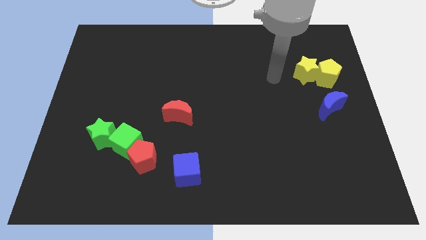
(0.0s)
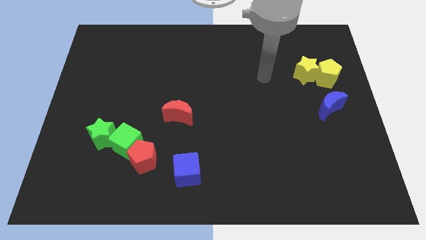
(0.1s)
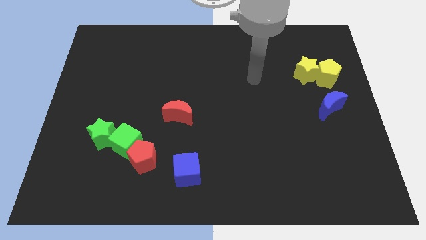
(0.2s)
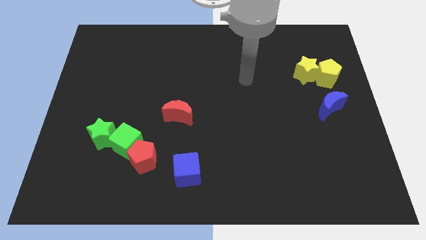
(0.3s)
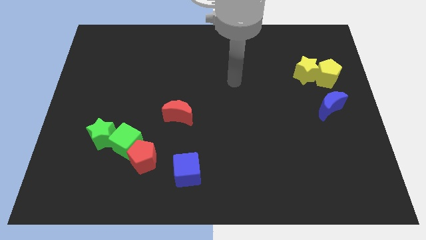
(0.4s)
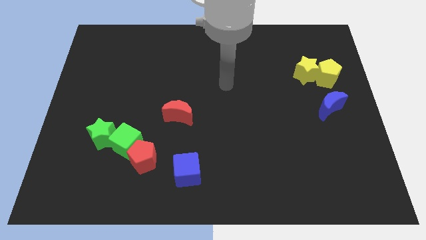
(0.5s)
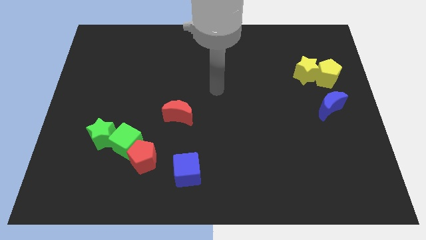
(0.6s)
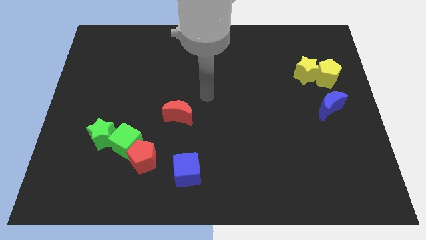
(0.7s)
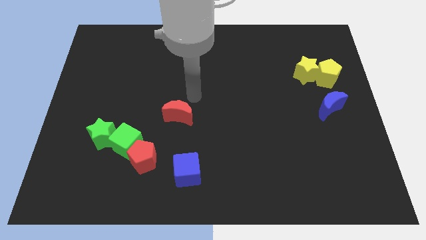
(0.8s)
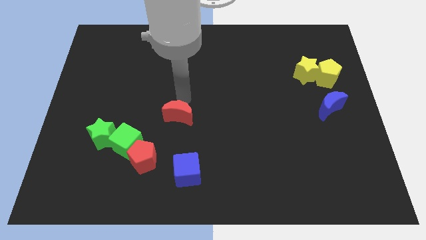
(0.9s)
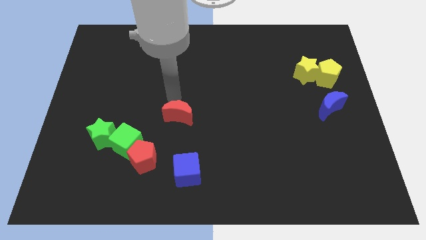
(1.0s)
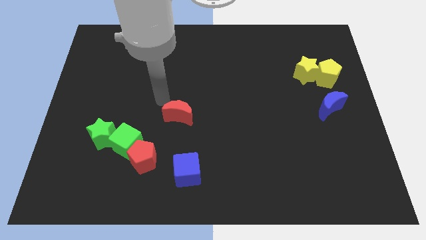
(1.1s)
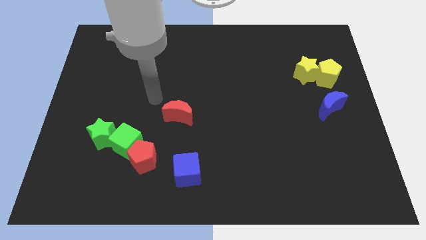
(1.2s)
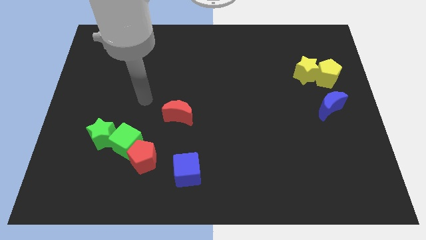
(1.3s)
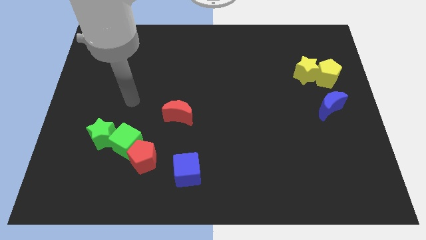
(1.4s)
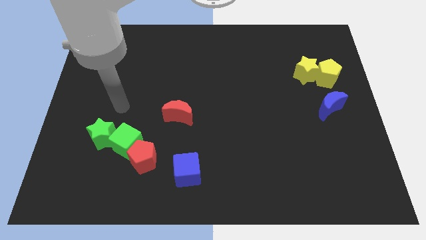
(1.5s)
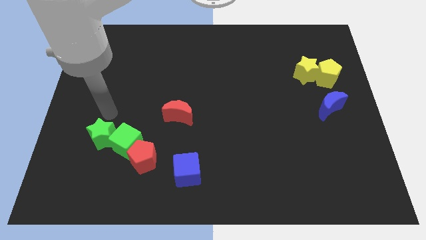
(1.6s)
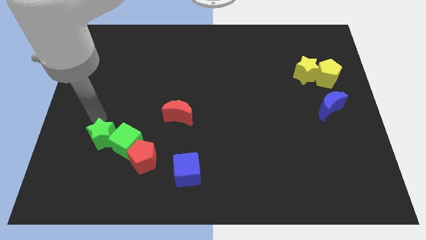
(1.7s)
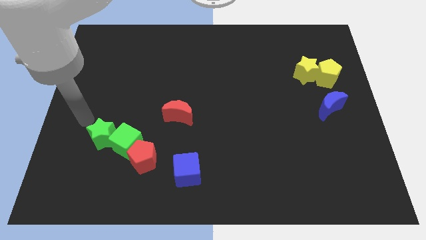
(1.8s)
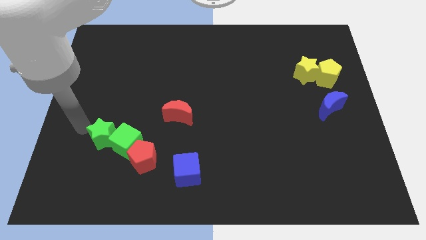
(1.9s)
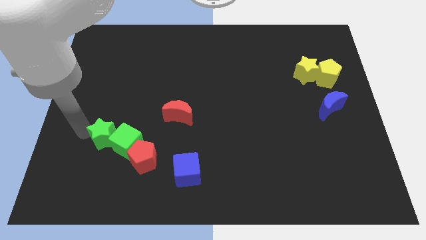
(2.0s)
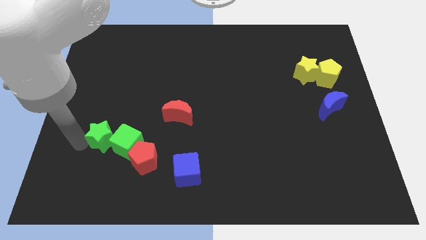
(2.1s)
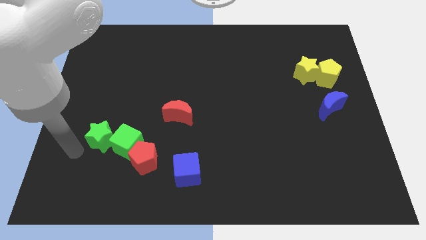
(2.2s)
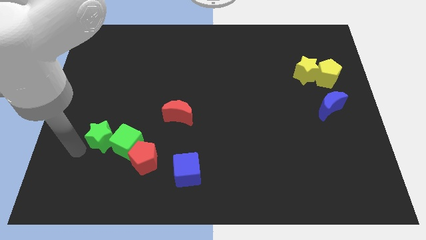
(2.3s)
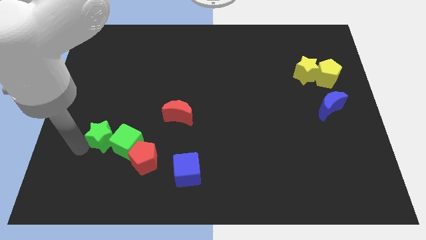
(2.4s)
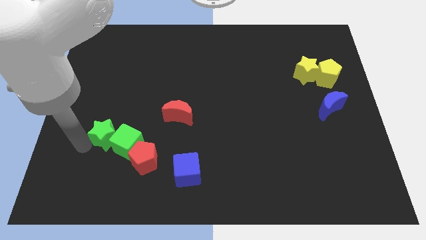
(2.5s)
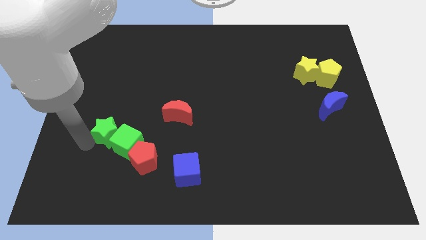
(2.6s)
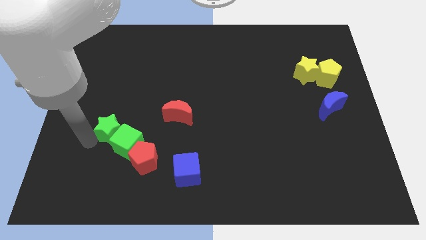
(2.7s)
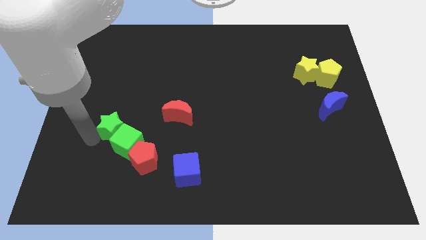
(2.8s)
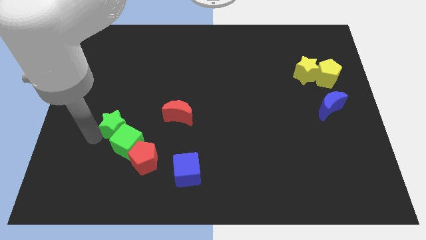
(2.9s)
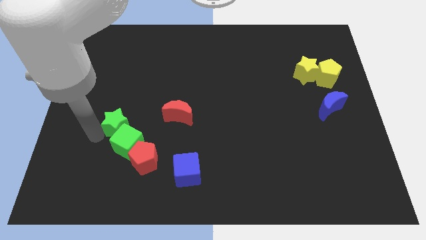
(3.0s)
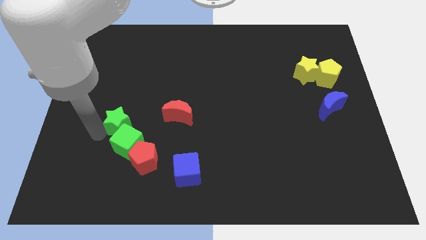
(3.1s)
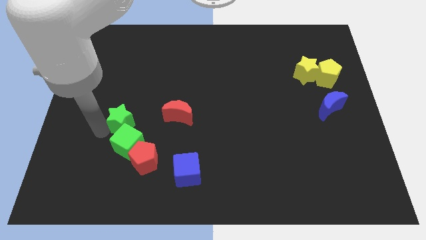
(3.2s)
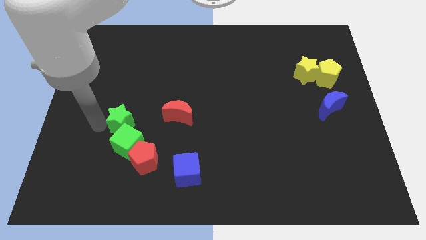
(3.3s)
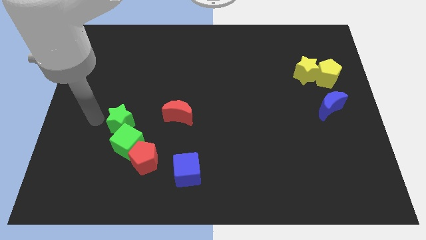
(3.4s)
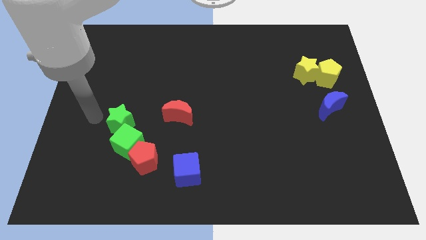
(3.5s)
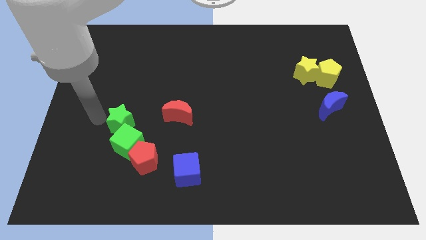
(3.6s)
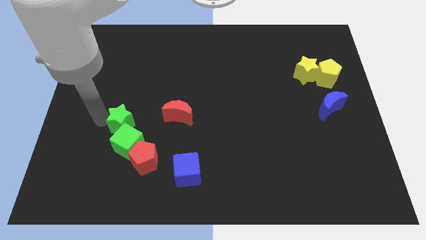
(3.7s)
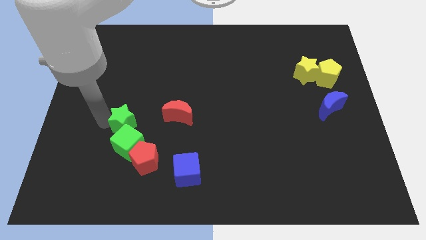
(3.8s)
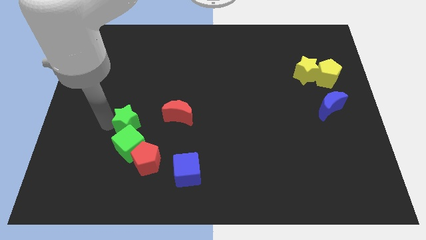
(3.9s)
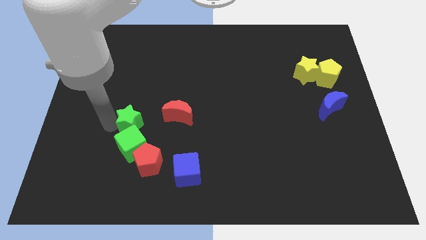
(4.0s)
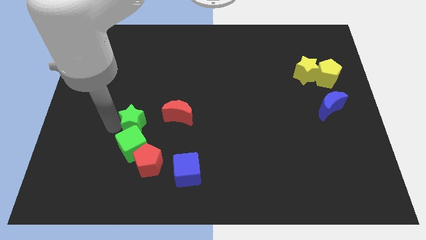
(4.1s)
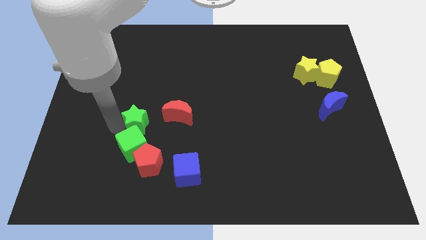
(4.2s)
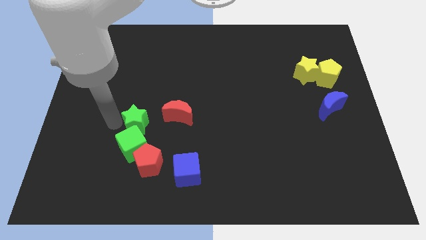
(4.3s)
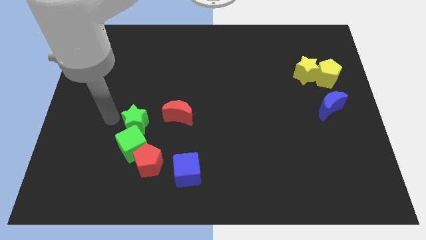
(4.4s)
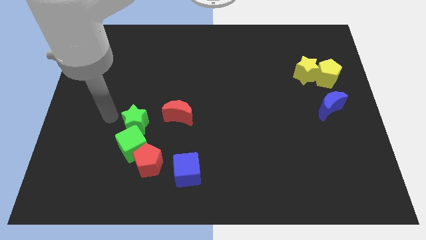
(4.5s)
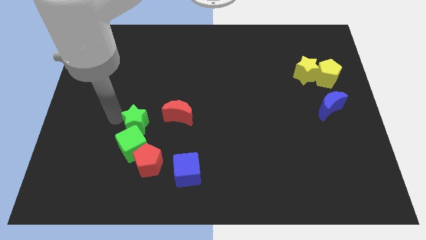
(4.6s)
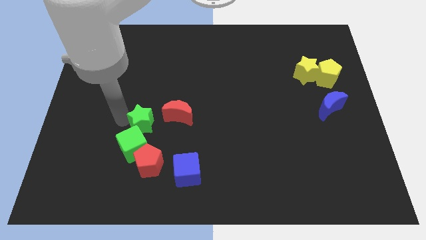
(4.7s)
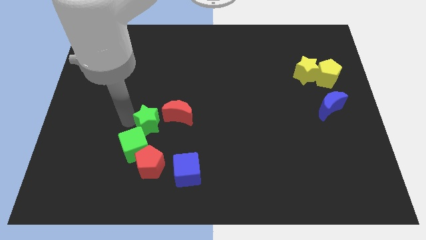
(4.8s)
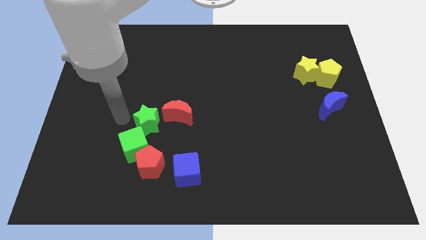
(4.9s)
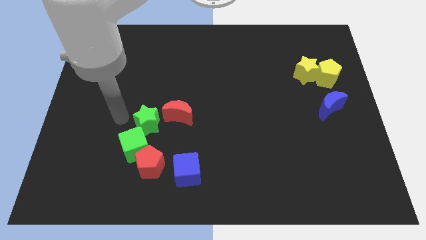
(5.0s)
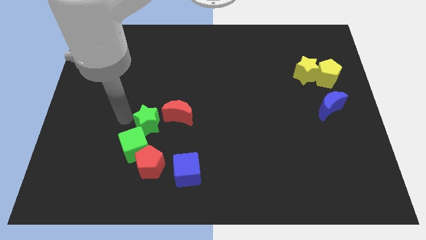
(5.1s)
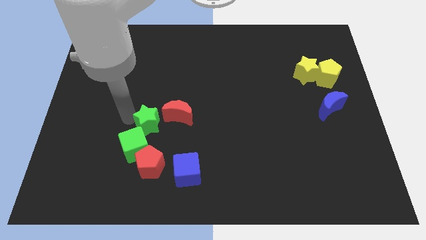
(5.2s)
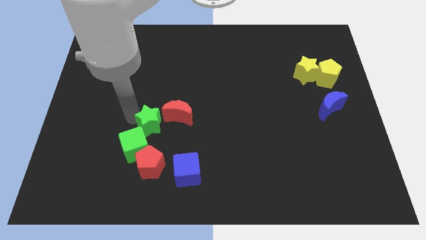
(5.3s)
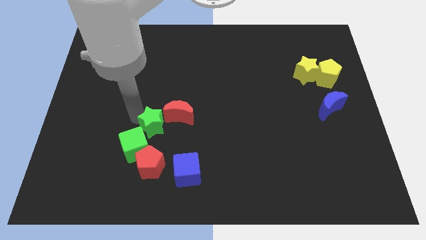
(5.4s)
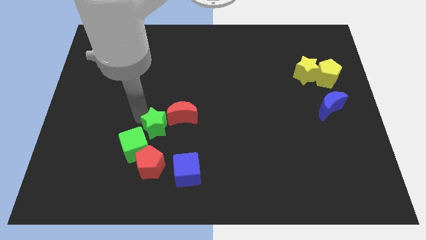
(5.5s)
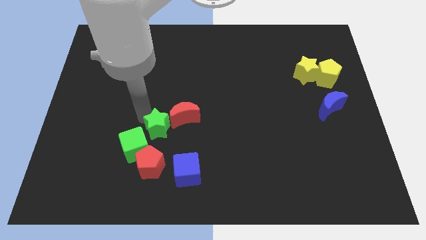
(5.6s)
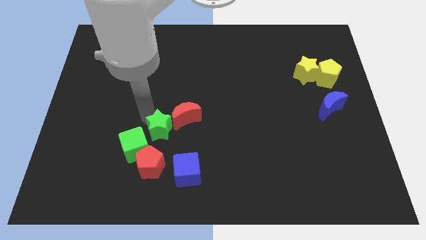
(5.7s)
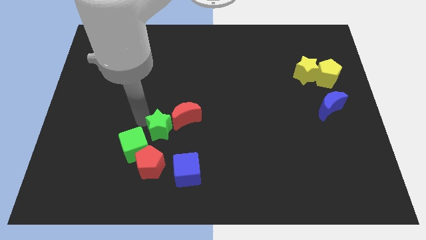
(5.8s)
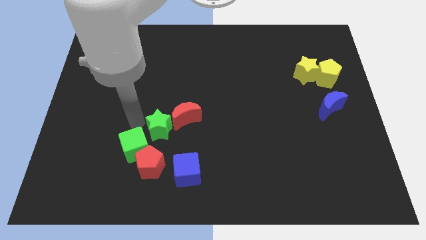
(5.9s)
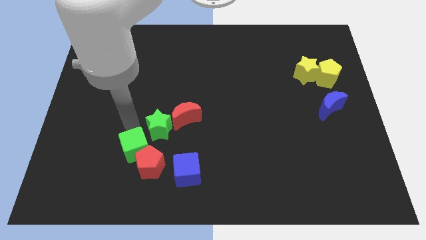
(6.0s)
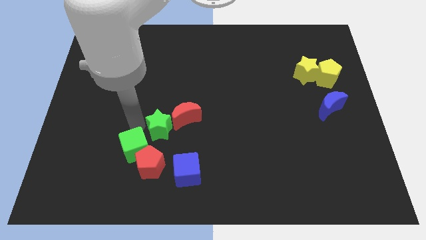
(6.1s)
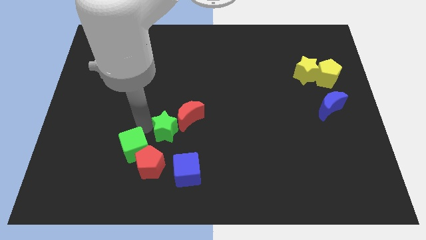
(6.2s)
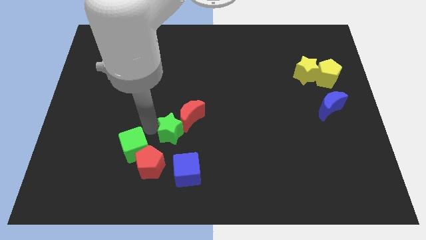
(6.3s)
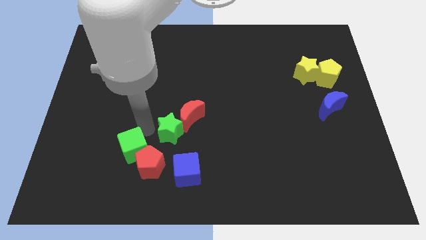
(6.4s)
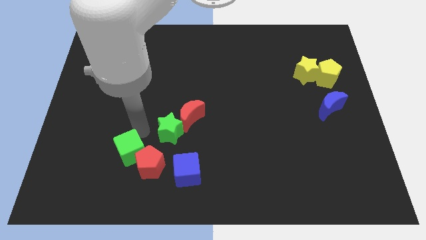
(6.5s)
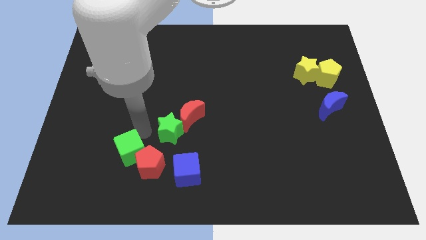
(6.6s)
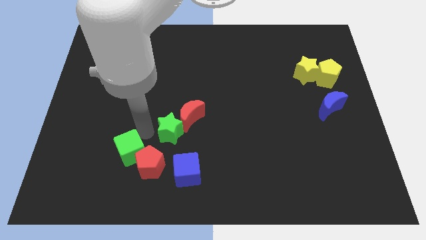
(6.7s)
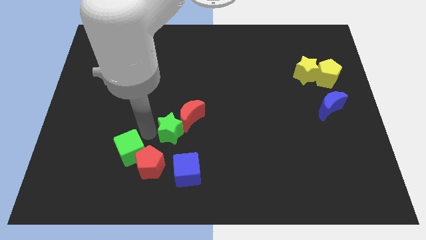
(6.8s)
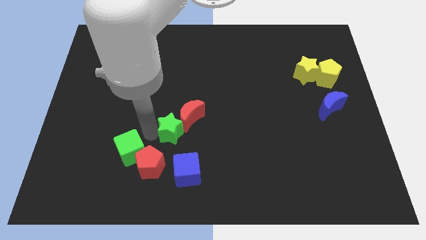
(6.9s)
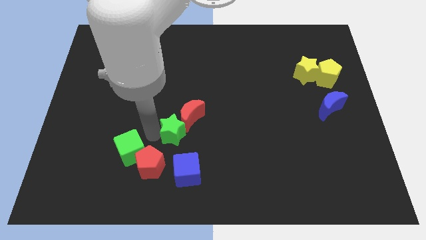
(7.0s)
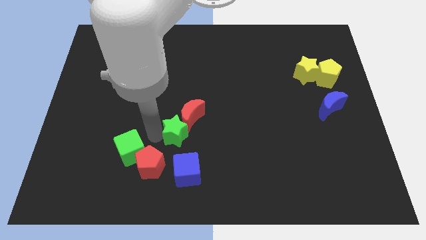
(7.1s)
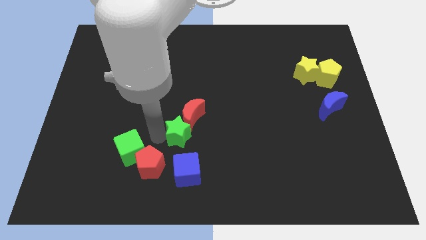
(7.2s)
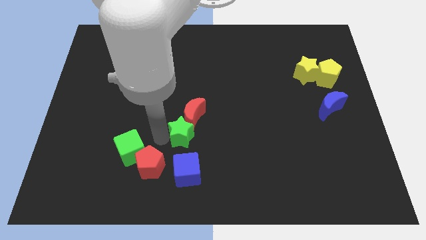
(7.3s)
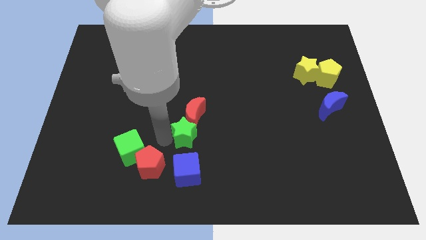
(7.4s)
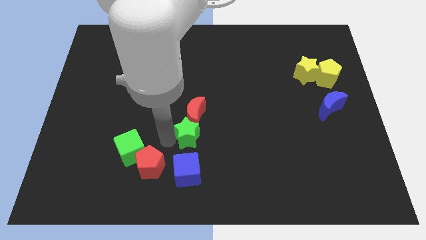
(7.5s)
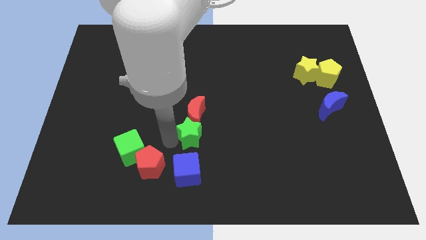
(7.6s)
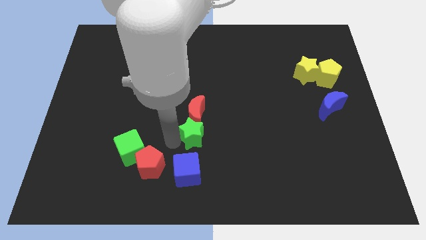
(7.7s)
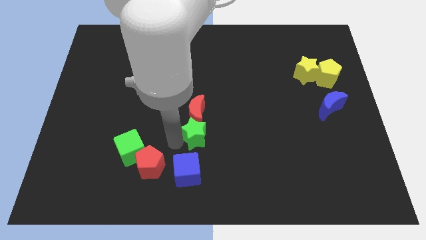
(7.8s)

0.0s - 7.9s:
move the green star to the right

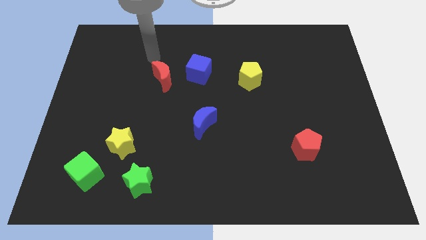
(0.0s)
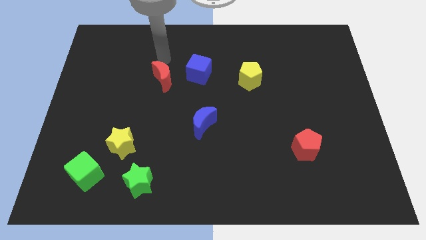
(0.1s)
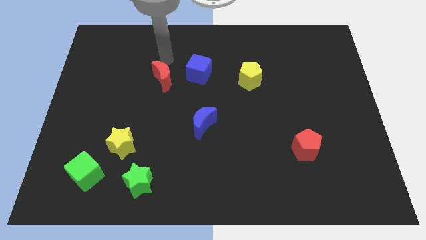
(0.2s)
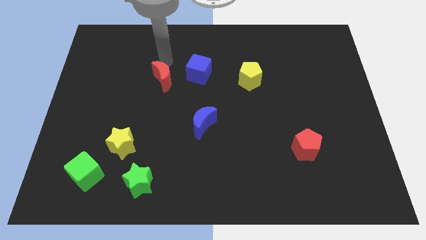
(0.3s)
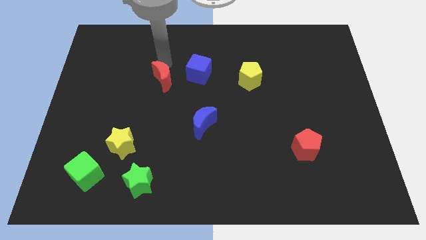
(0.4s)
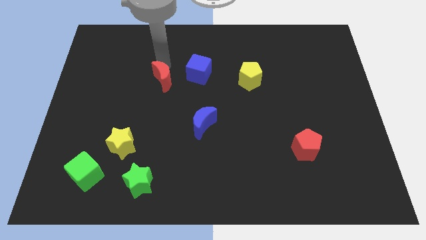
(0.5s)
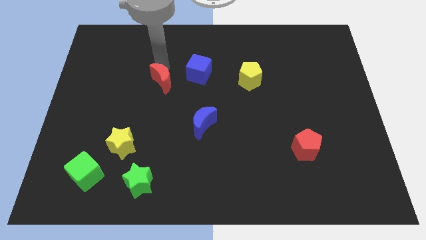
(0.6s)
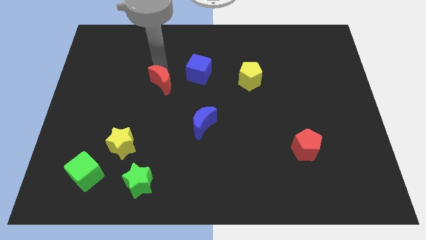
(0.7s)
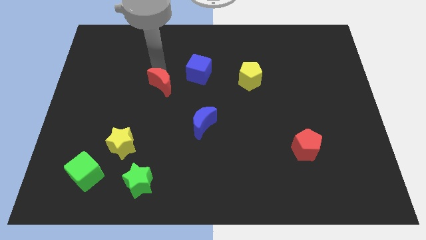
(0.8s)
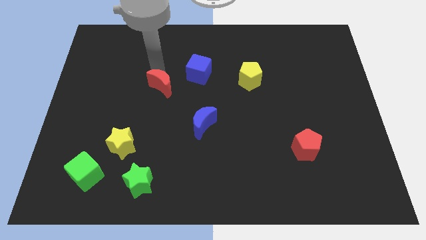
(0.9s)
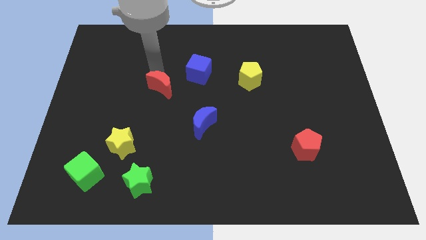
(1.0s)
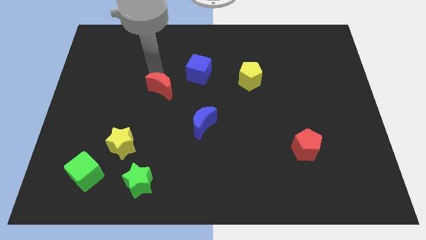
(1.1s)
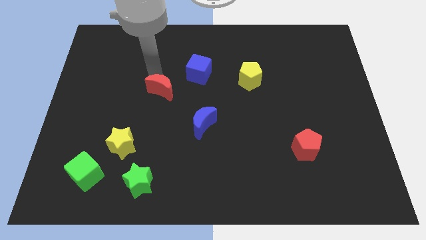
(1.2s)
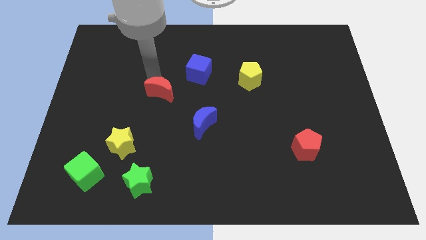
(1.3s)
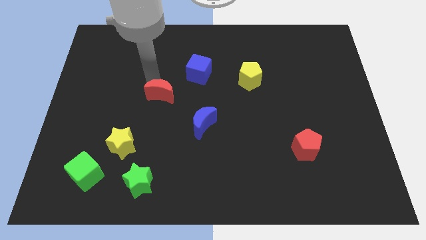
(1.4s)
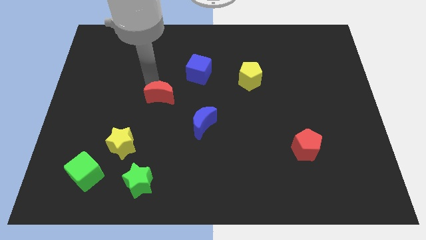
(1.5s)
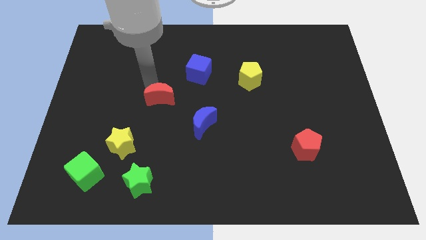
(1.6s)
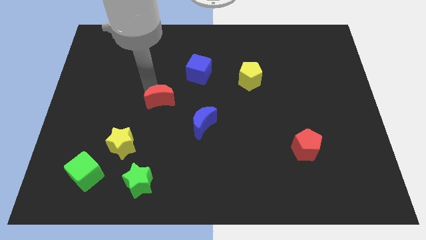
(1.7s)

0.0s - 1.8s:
slide the red moon down slightly
